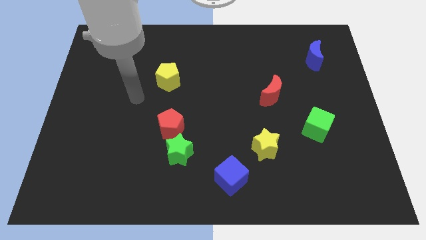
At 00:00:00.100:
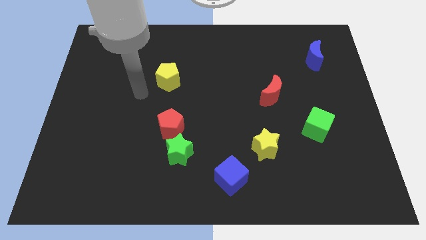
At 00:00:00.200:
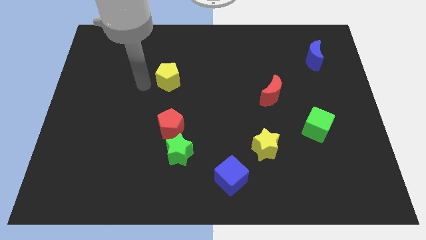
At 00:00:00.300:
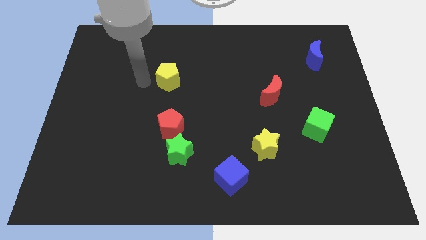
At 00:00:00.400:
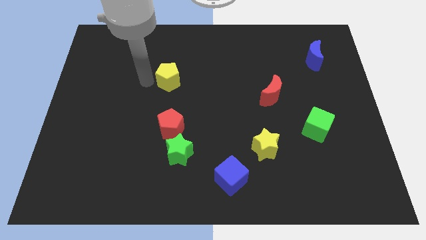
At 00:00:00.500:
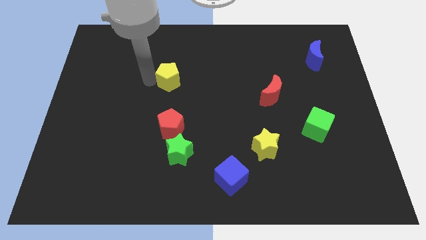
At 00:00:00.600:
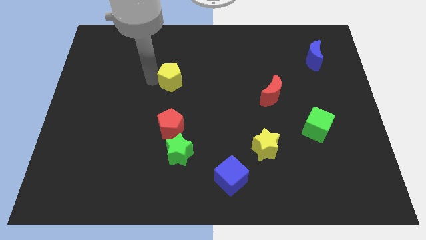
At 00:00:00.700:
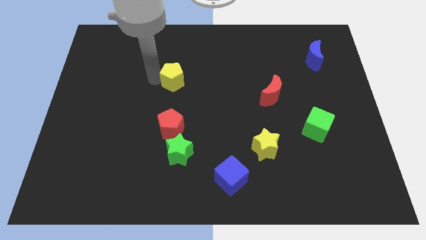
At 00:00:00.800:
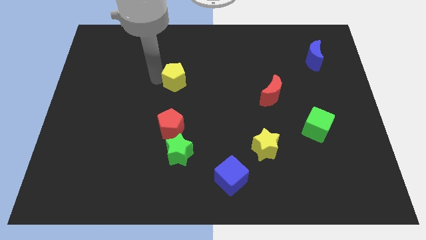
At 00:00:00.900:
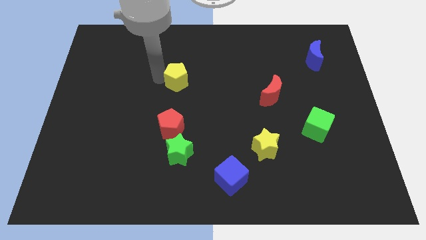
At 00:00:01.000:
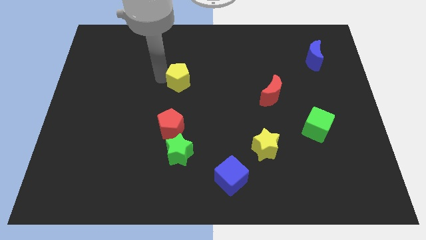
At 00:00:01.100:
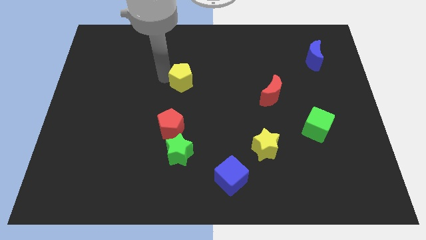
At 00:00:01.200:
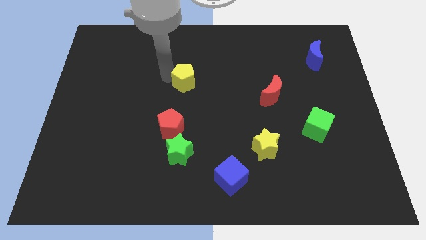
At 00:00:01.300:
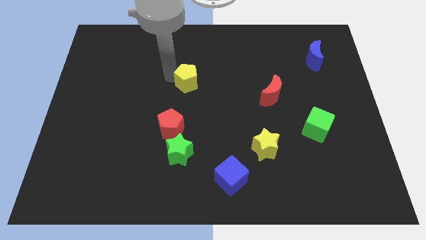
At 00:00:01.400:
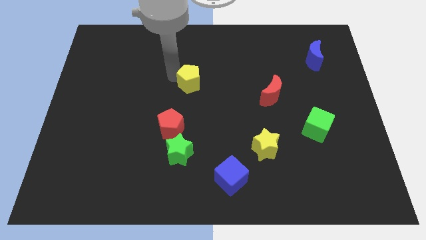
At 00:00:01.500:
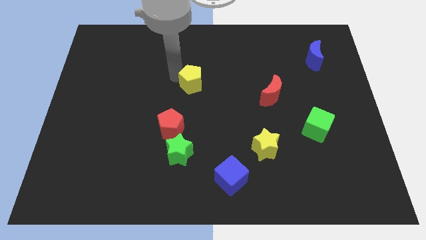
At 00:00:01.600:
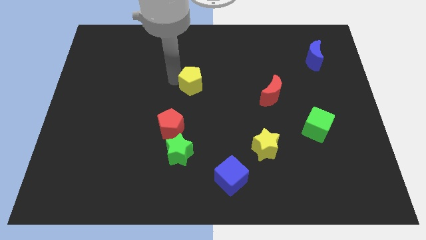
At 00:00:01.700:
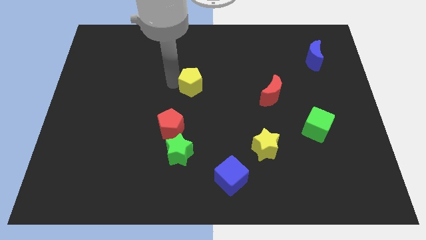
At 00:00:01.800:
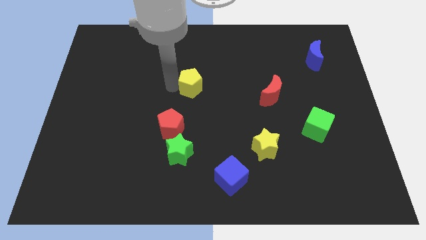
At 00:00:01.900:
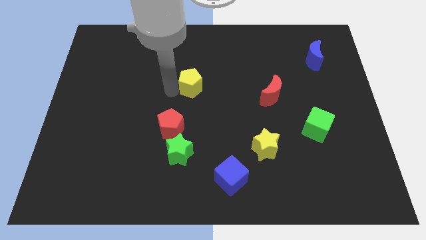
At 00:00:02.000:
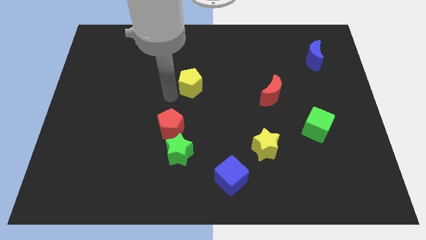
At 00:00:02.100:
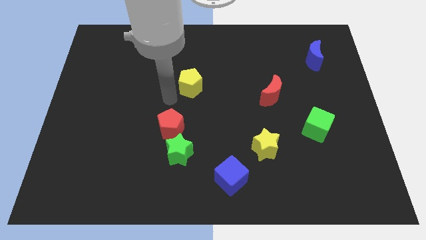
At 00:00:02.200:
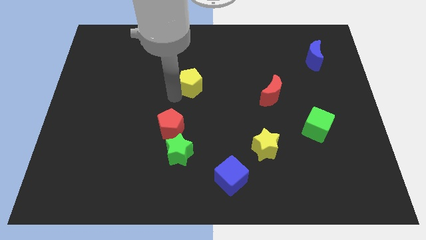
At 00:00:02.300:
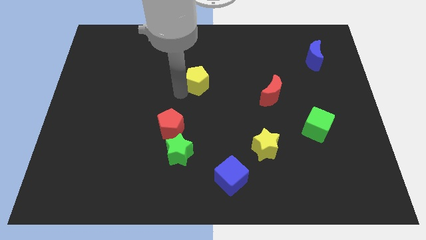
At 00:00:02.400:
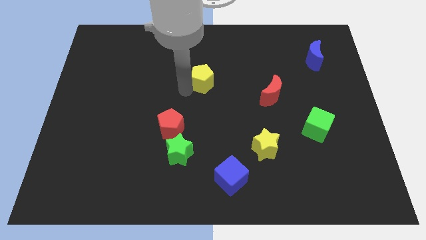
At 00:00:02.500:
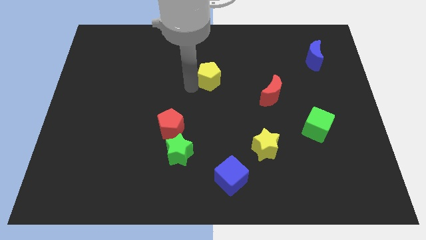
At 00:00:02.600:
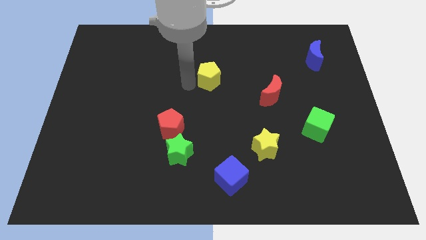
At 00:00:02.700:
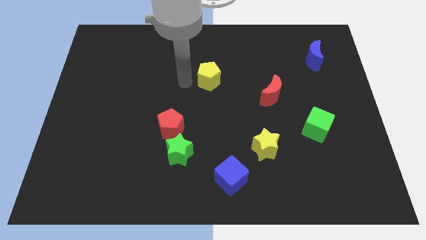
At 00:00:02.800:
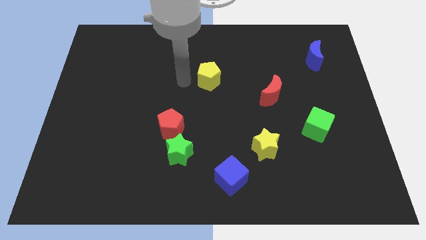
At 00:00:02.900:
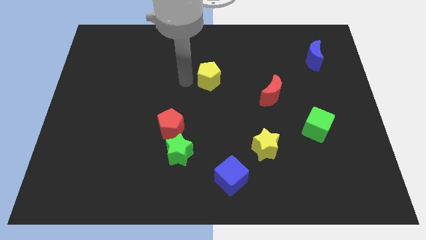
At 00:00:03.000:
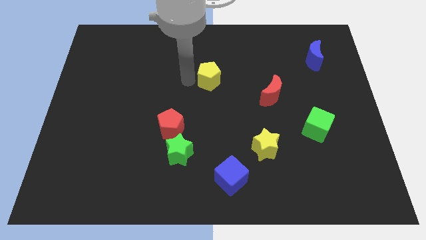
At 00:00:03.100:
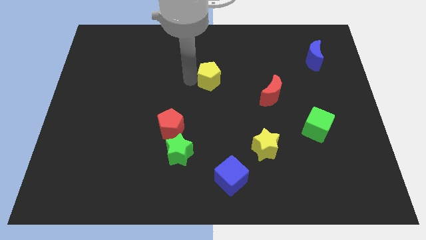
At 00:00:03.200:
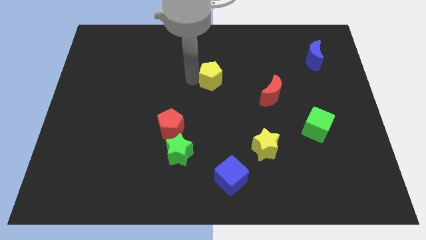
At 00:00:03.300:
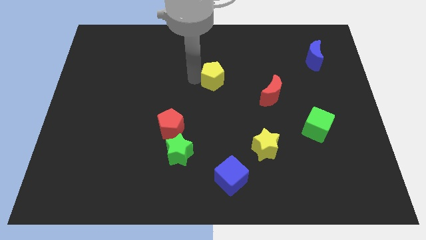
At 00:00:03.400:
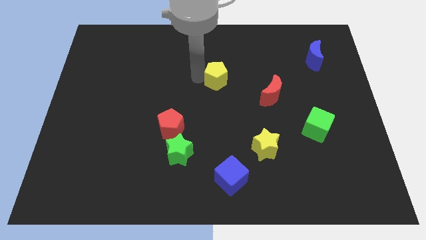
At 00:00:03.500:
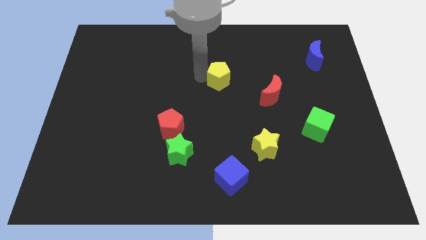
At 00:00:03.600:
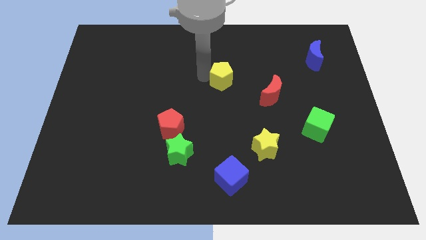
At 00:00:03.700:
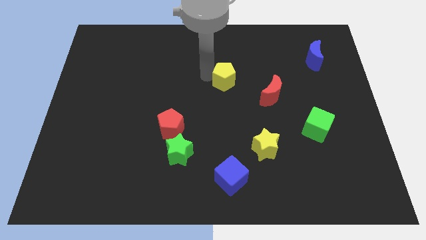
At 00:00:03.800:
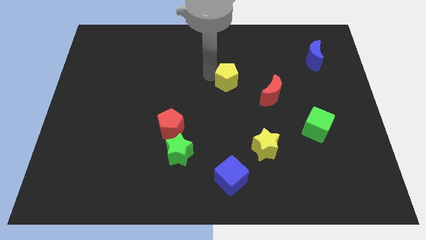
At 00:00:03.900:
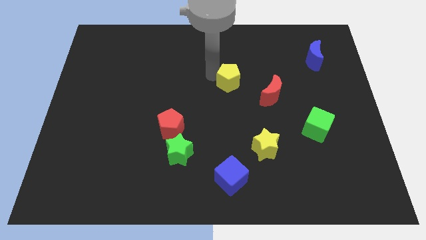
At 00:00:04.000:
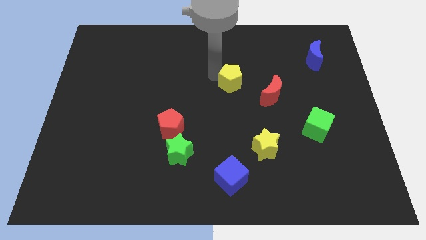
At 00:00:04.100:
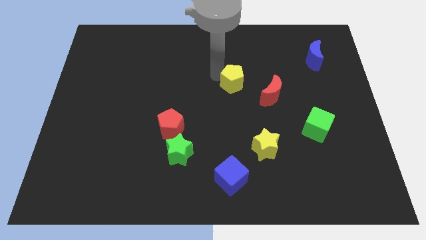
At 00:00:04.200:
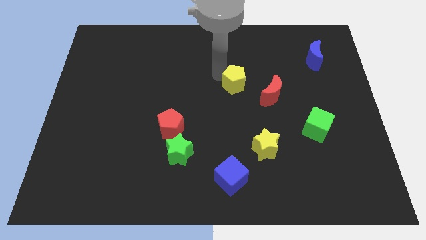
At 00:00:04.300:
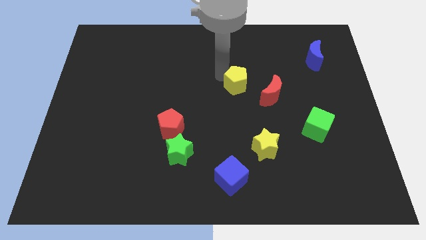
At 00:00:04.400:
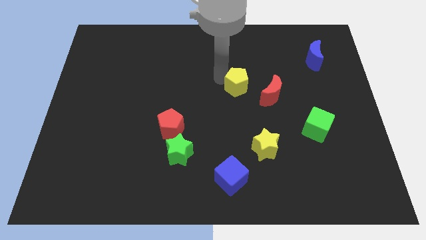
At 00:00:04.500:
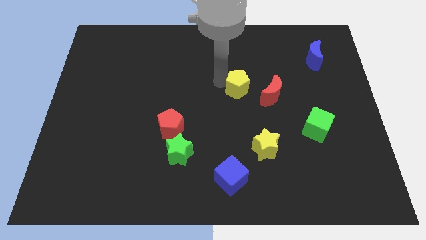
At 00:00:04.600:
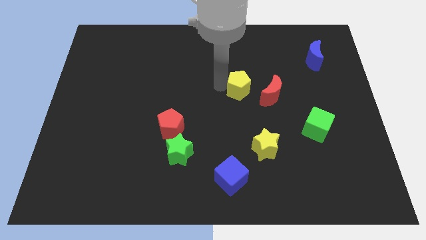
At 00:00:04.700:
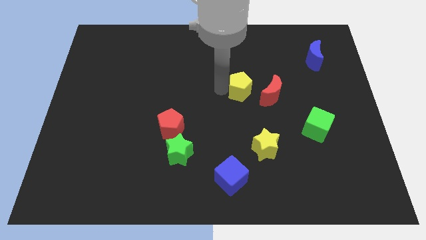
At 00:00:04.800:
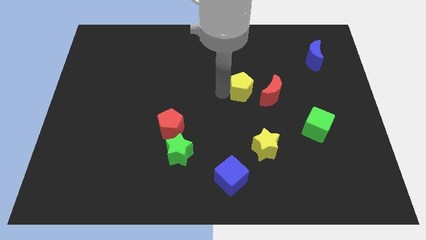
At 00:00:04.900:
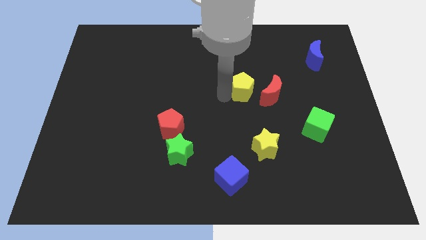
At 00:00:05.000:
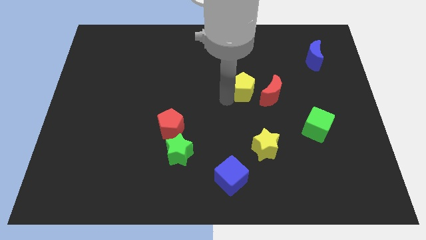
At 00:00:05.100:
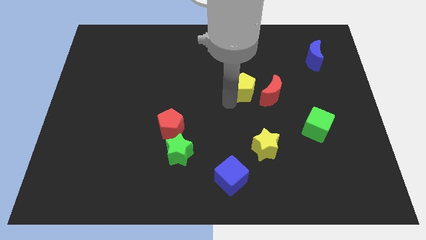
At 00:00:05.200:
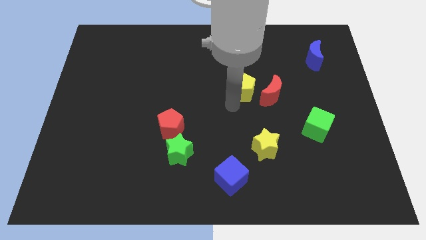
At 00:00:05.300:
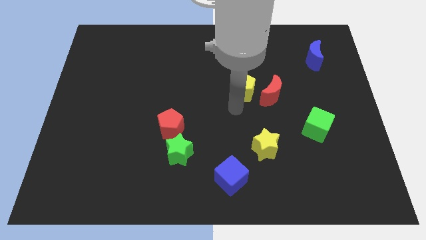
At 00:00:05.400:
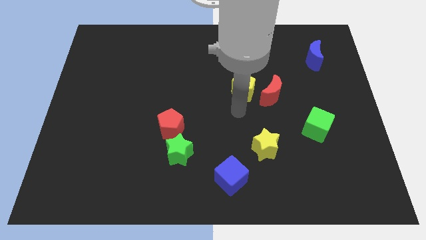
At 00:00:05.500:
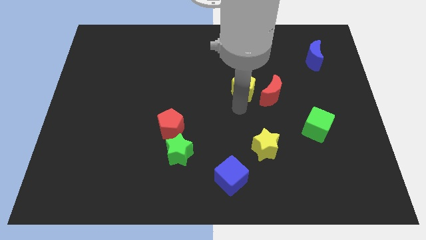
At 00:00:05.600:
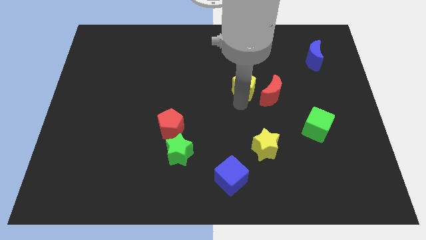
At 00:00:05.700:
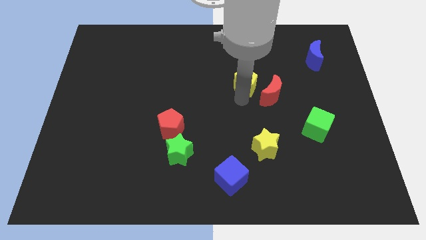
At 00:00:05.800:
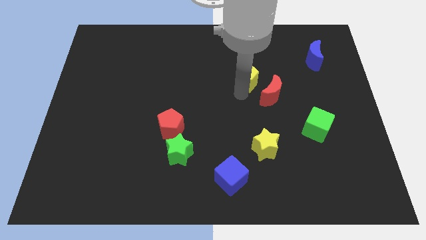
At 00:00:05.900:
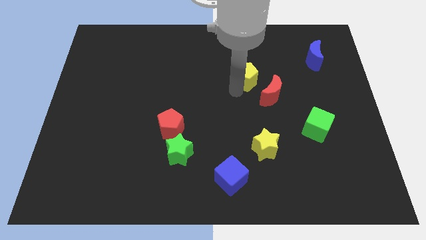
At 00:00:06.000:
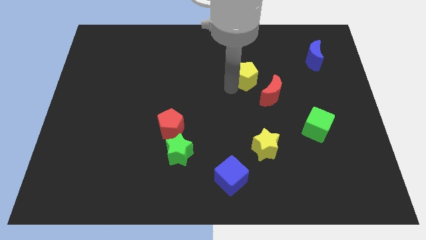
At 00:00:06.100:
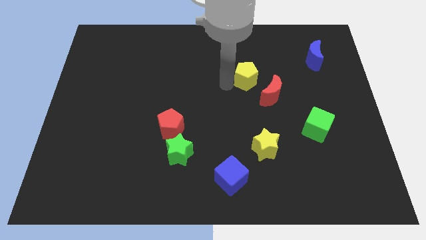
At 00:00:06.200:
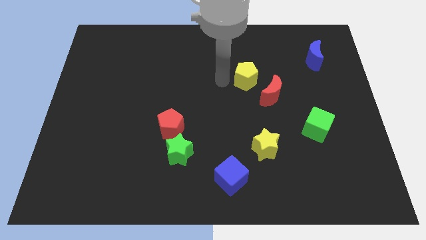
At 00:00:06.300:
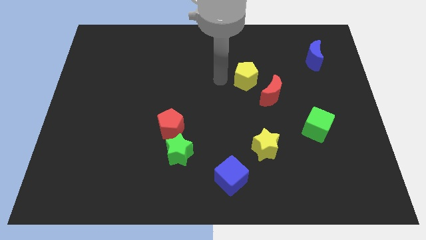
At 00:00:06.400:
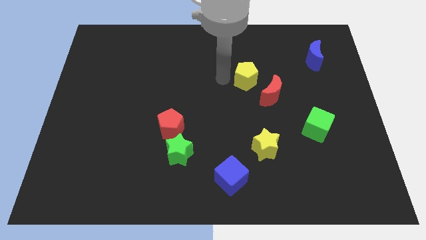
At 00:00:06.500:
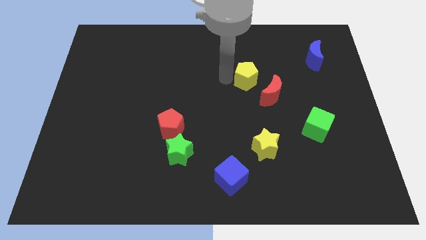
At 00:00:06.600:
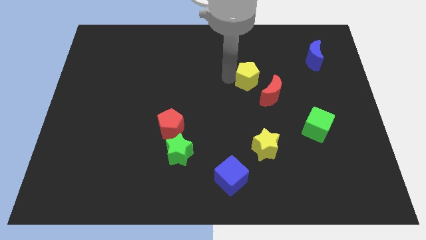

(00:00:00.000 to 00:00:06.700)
push the yellow pentagon to the right

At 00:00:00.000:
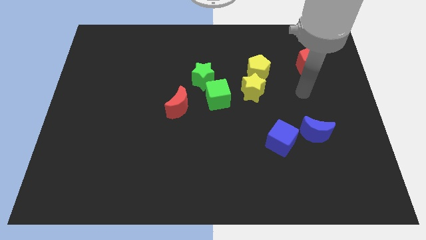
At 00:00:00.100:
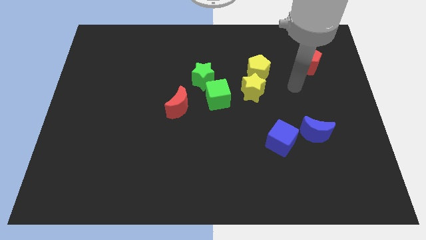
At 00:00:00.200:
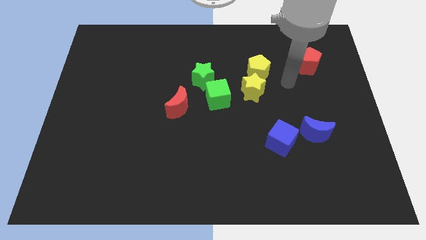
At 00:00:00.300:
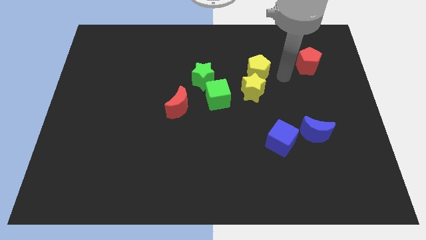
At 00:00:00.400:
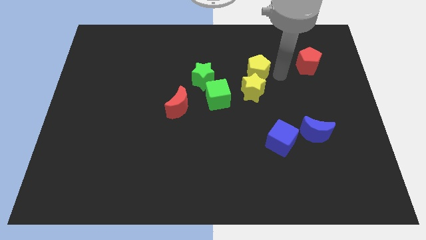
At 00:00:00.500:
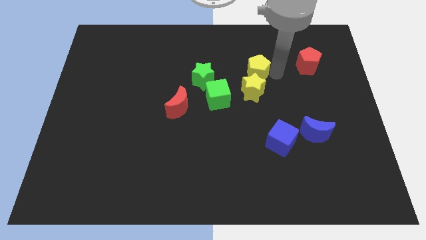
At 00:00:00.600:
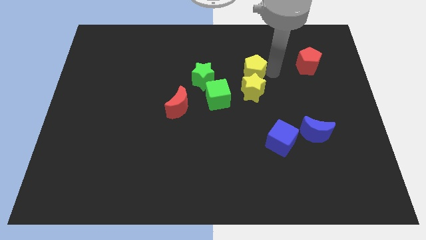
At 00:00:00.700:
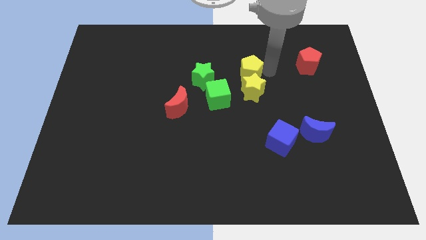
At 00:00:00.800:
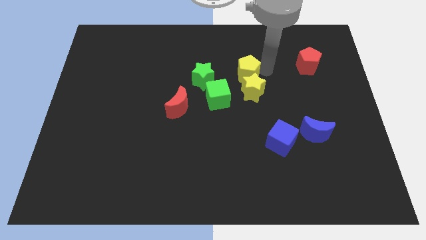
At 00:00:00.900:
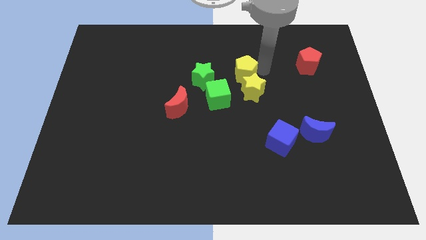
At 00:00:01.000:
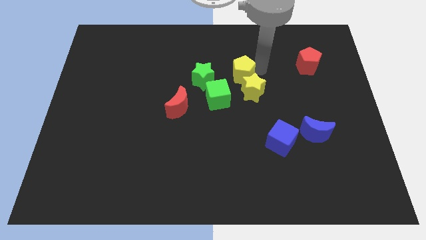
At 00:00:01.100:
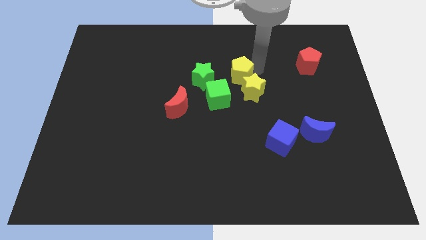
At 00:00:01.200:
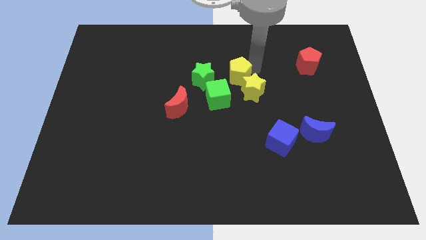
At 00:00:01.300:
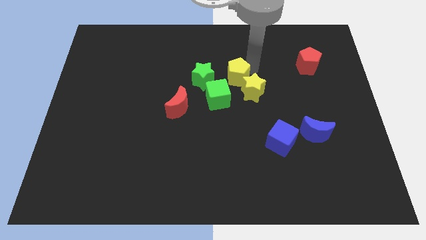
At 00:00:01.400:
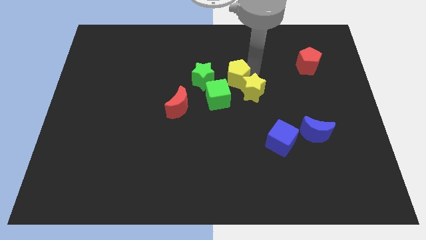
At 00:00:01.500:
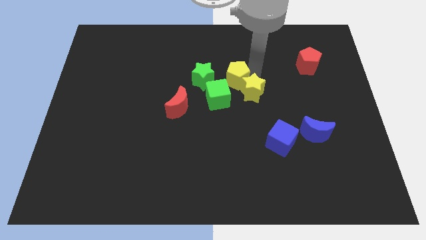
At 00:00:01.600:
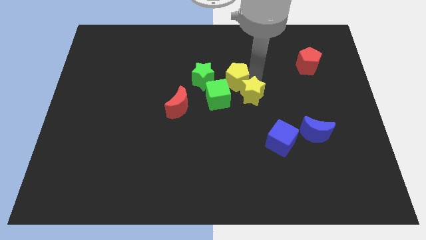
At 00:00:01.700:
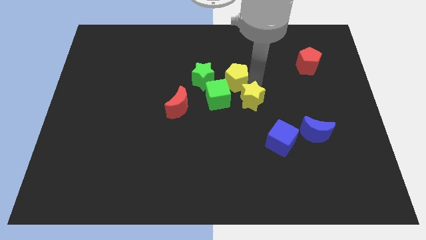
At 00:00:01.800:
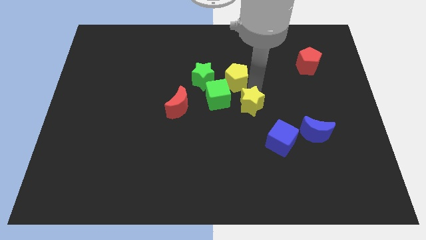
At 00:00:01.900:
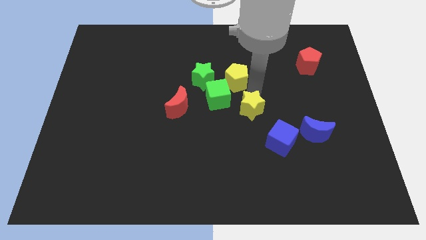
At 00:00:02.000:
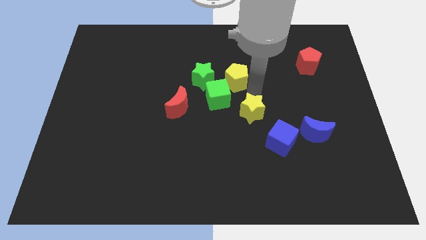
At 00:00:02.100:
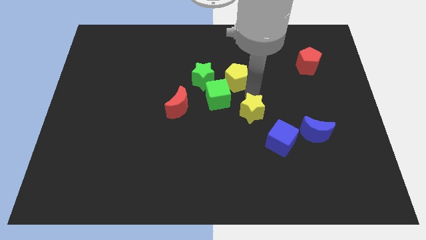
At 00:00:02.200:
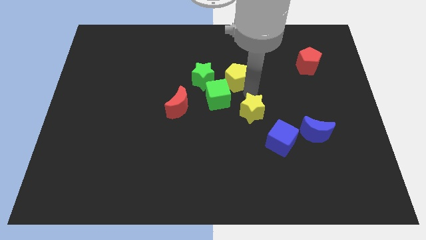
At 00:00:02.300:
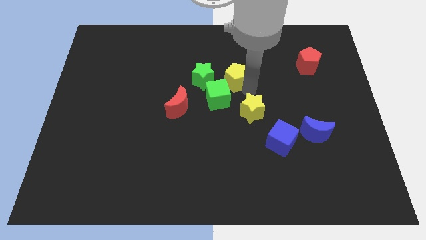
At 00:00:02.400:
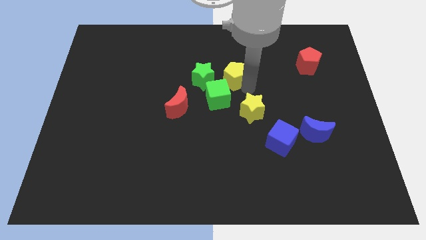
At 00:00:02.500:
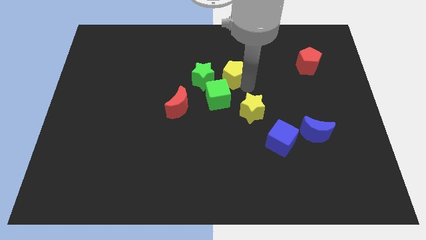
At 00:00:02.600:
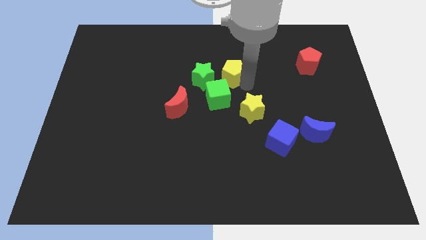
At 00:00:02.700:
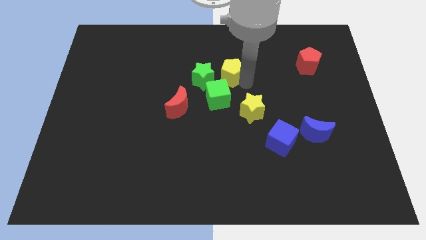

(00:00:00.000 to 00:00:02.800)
push the yellow pentagon left slightly
